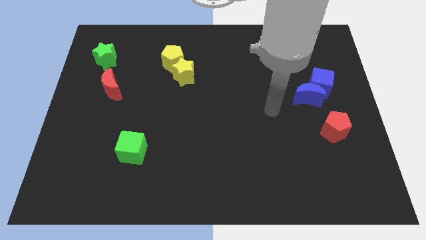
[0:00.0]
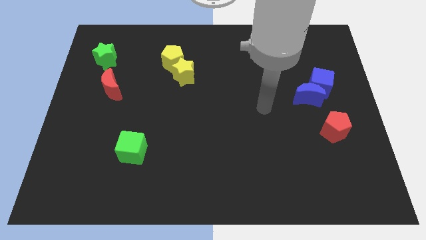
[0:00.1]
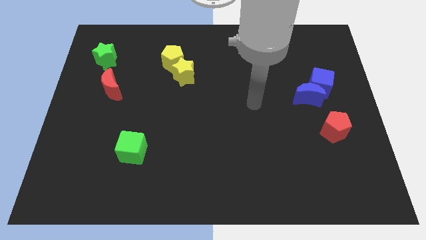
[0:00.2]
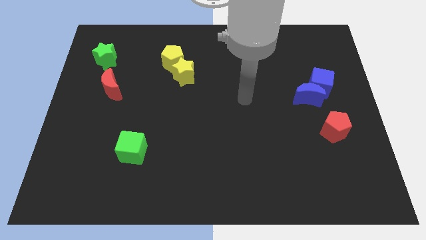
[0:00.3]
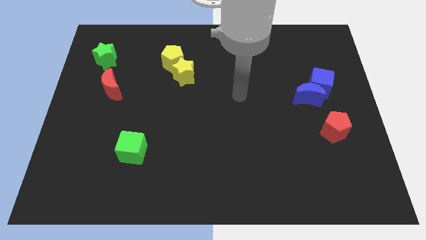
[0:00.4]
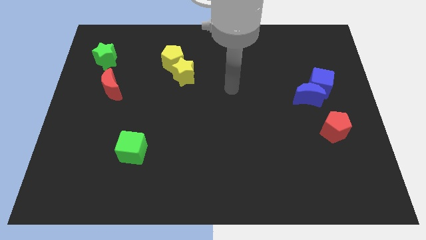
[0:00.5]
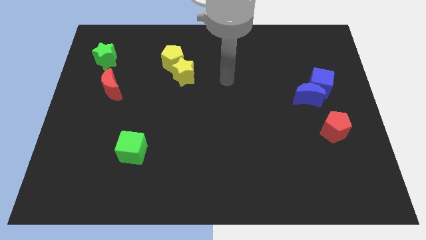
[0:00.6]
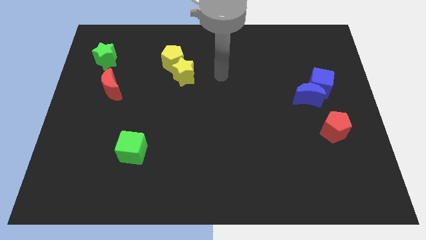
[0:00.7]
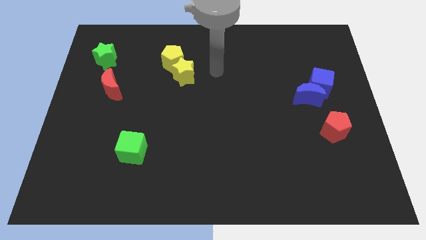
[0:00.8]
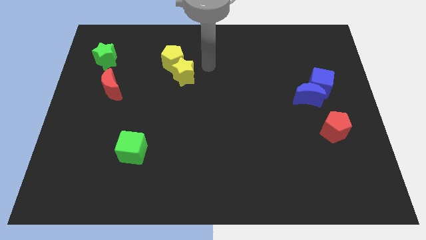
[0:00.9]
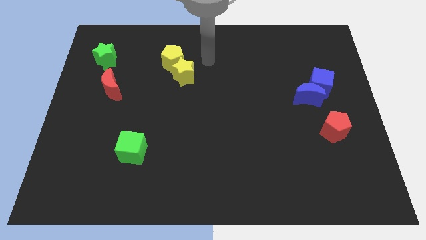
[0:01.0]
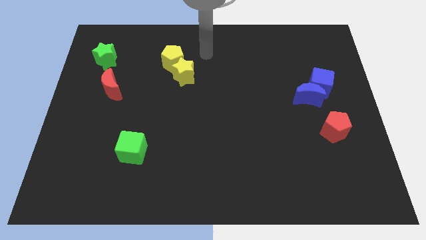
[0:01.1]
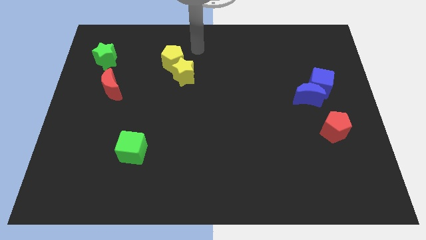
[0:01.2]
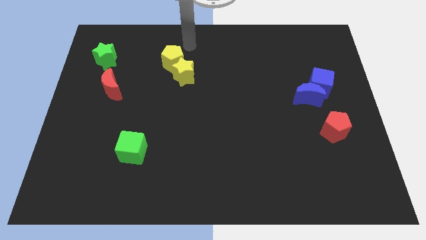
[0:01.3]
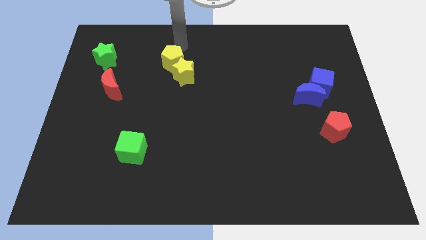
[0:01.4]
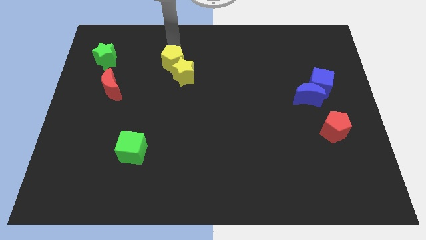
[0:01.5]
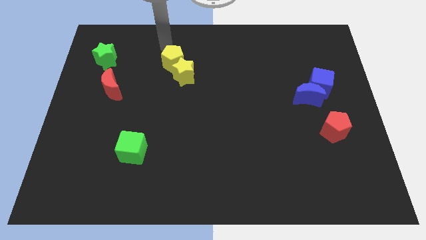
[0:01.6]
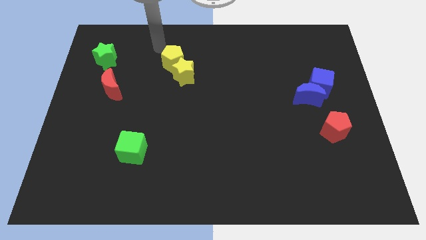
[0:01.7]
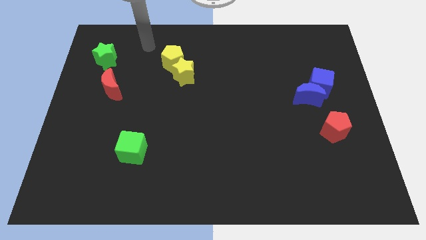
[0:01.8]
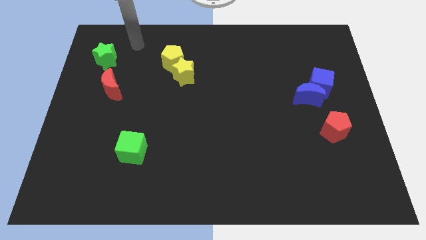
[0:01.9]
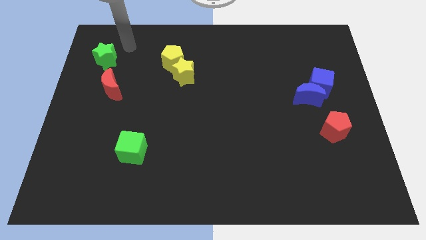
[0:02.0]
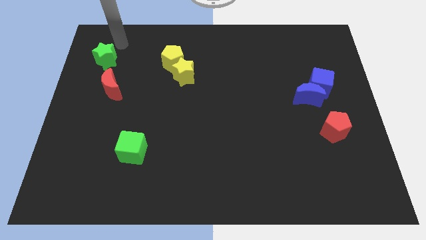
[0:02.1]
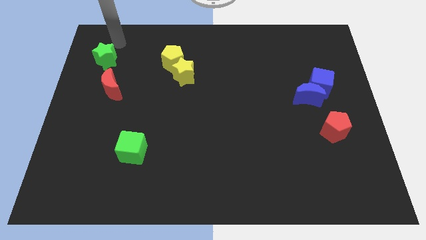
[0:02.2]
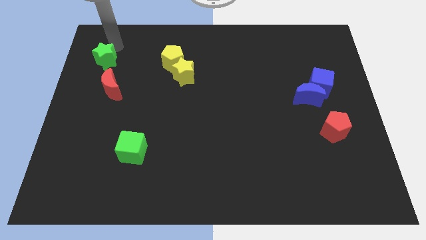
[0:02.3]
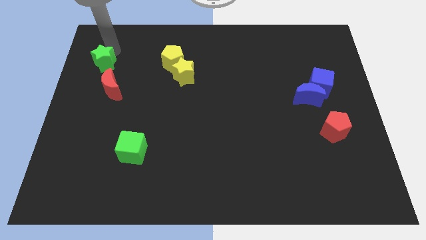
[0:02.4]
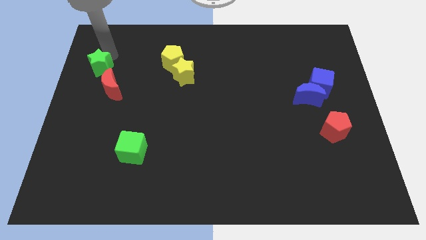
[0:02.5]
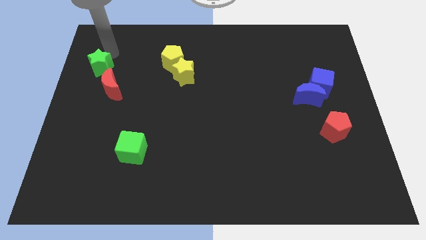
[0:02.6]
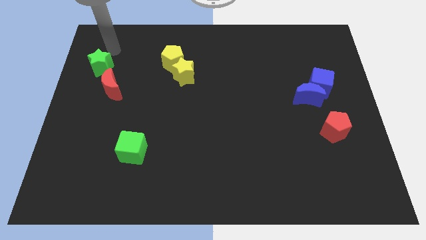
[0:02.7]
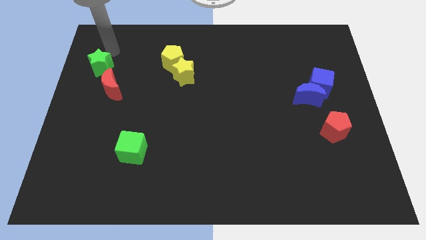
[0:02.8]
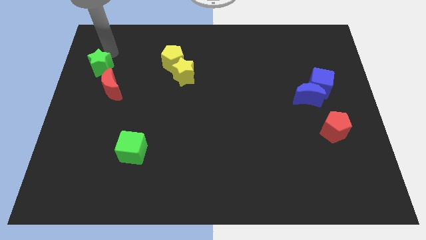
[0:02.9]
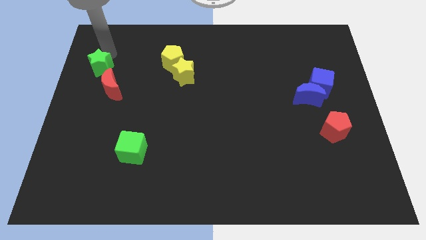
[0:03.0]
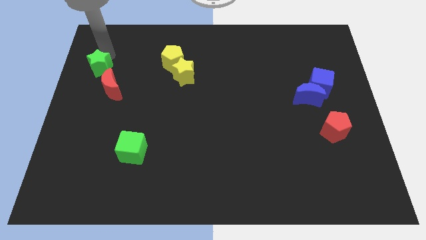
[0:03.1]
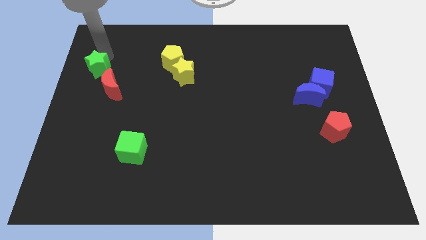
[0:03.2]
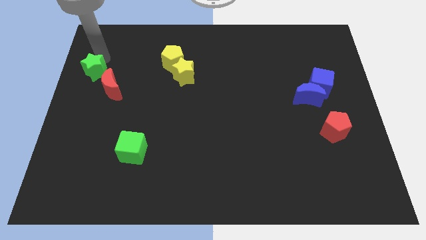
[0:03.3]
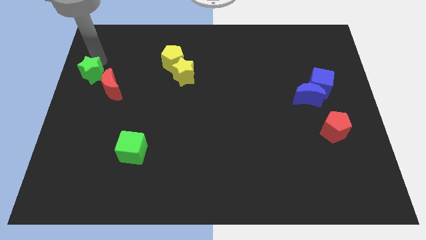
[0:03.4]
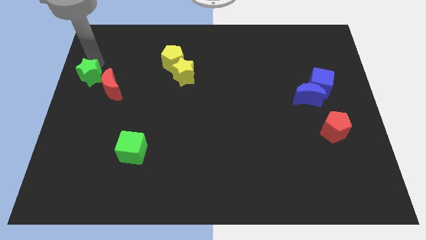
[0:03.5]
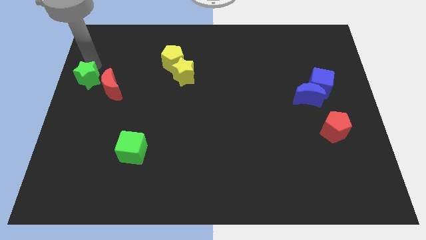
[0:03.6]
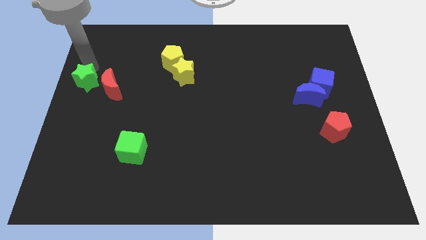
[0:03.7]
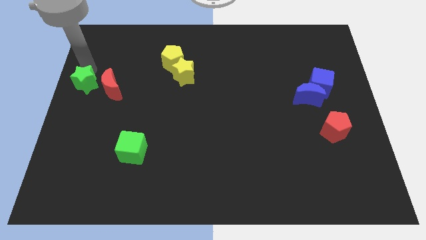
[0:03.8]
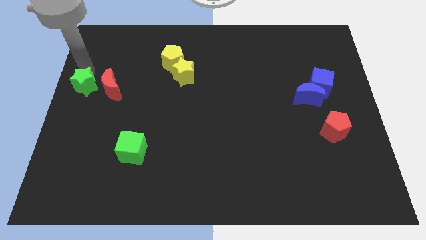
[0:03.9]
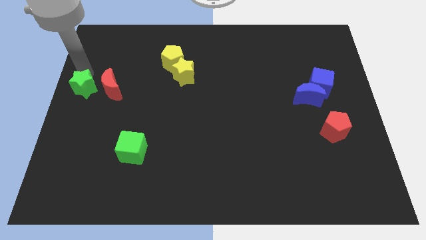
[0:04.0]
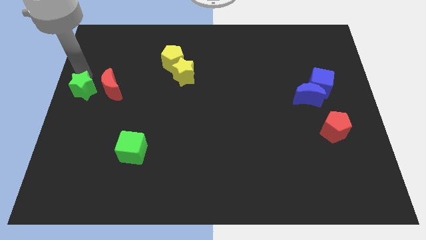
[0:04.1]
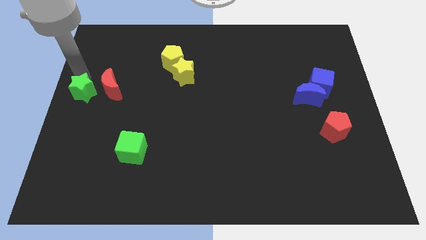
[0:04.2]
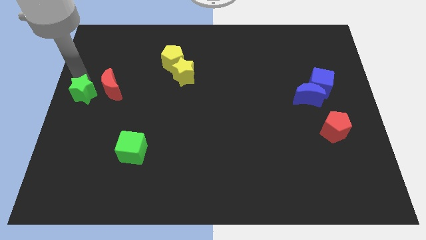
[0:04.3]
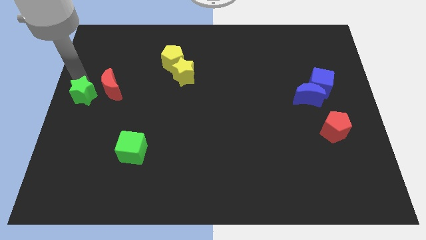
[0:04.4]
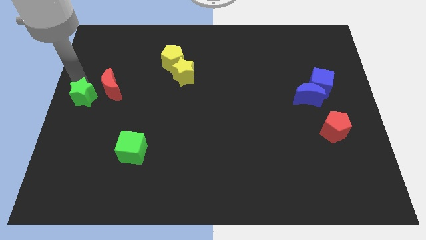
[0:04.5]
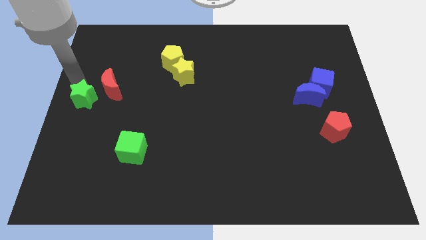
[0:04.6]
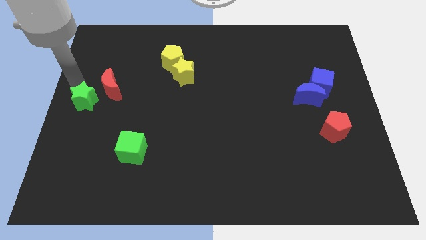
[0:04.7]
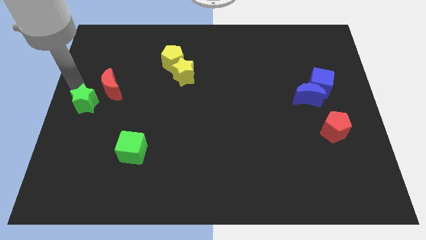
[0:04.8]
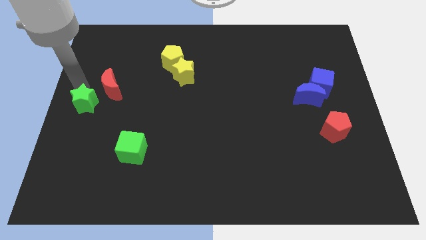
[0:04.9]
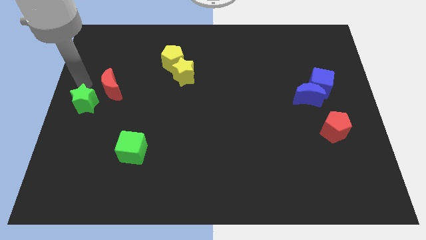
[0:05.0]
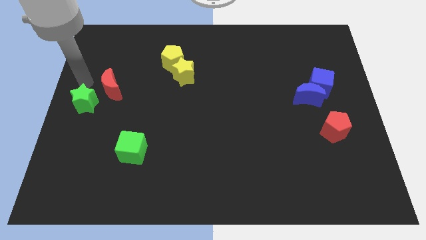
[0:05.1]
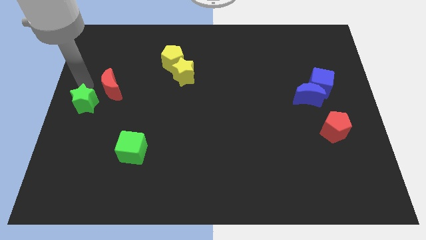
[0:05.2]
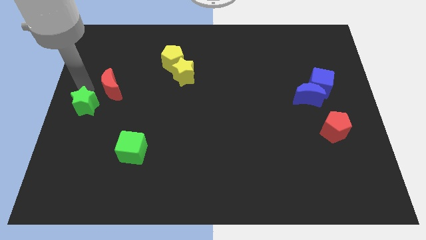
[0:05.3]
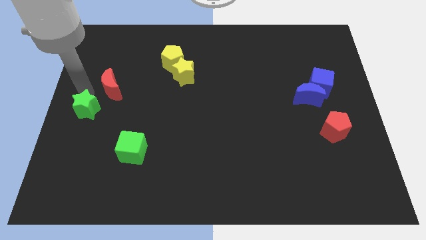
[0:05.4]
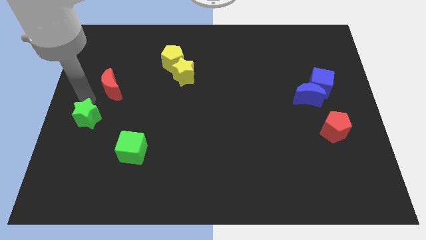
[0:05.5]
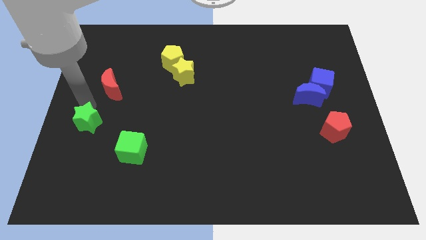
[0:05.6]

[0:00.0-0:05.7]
push the green star down

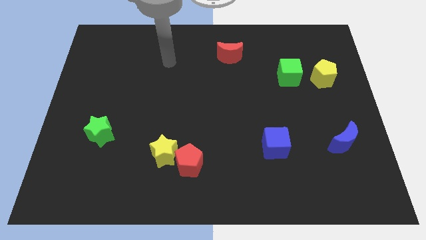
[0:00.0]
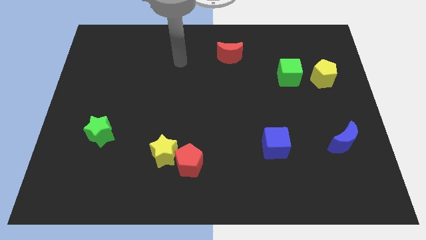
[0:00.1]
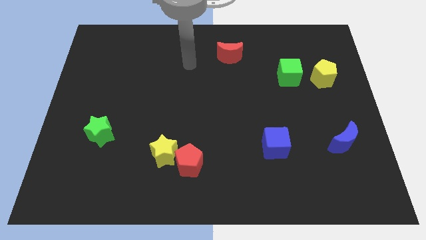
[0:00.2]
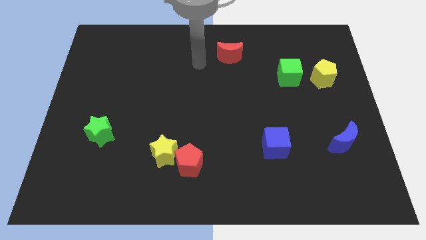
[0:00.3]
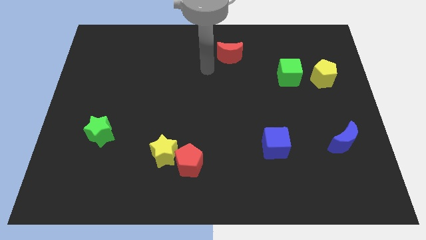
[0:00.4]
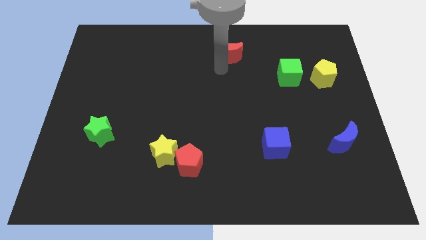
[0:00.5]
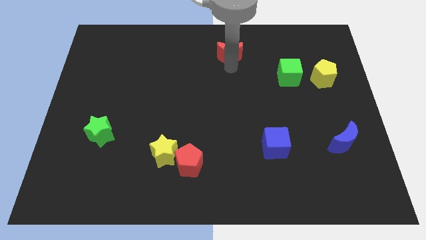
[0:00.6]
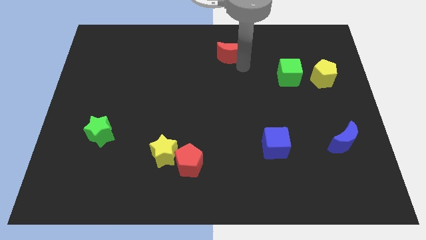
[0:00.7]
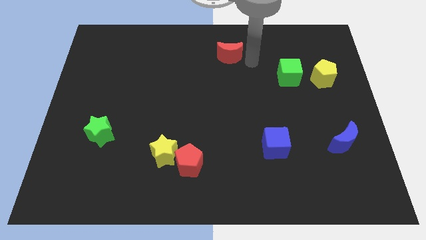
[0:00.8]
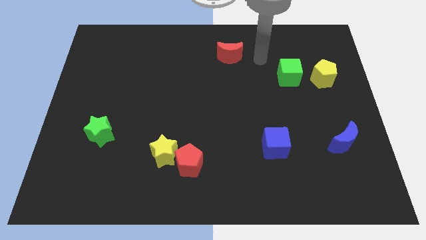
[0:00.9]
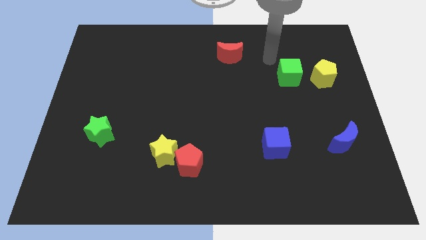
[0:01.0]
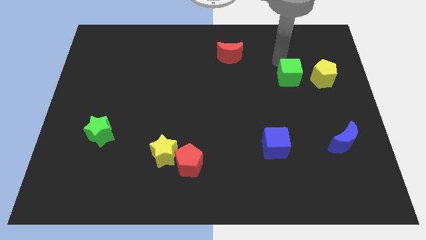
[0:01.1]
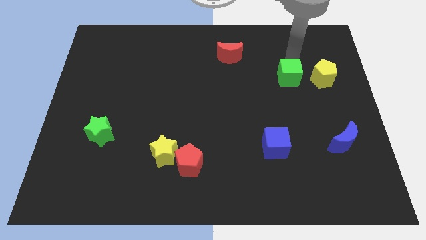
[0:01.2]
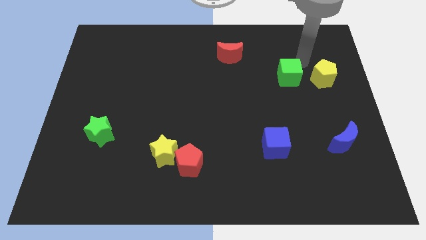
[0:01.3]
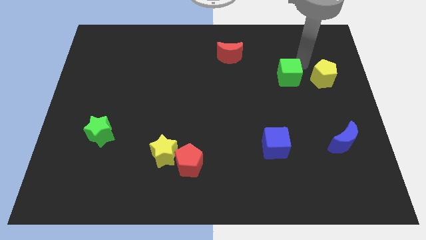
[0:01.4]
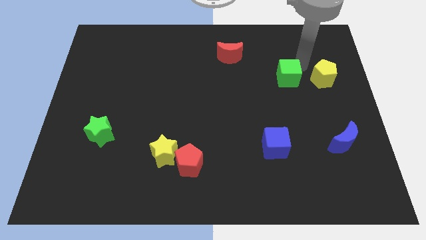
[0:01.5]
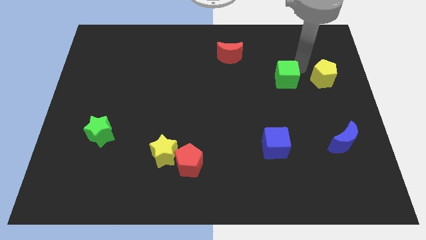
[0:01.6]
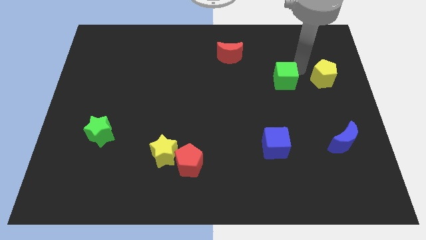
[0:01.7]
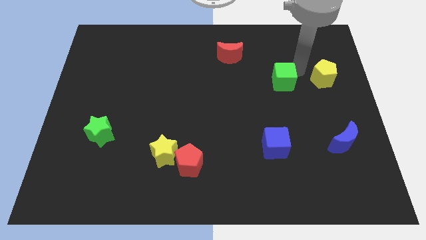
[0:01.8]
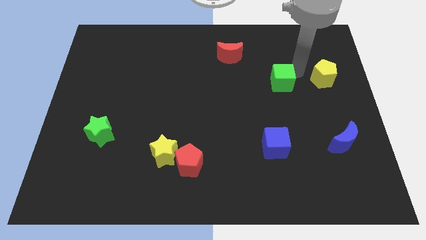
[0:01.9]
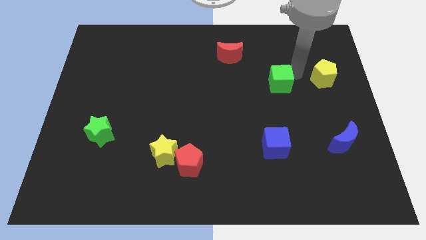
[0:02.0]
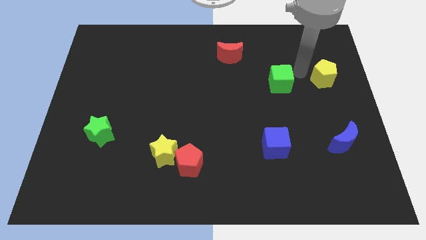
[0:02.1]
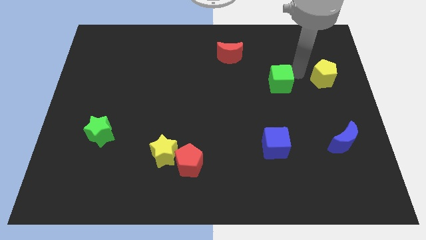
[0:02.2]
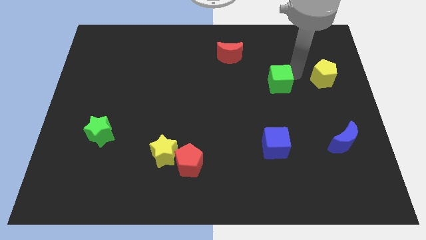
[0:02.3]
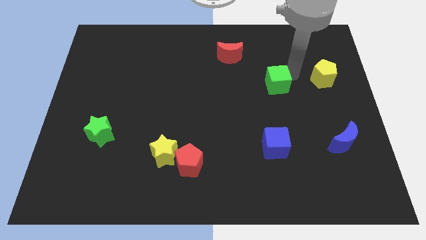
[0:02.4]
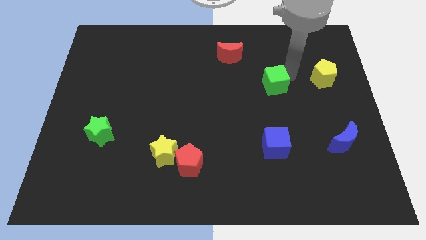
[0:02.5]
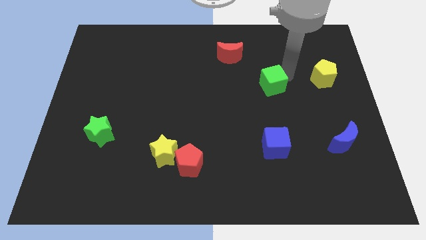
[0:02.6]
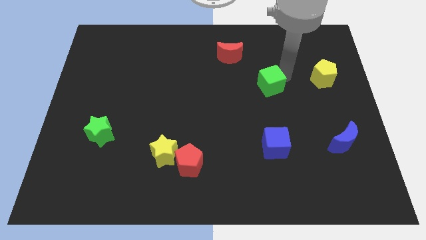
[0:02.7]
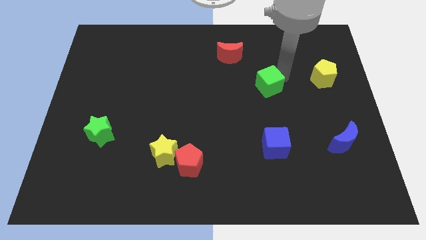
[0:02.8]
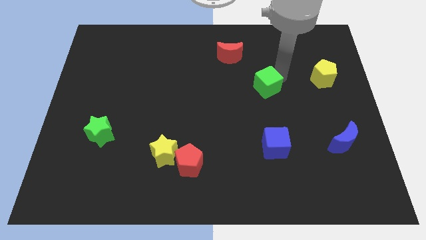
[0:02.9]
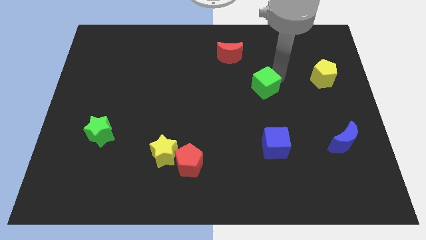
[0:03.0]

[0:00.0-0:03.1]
move the green cube downwards and to the left diagonally slightly
